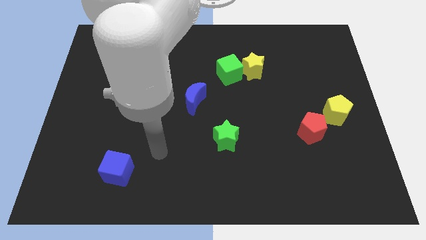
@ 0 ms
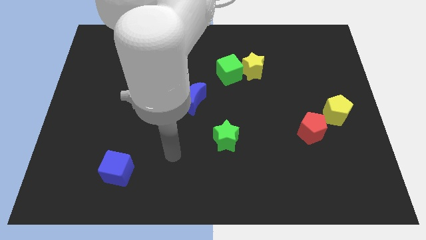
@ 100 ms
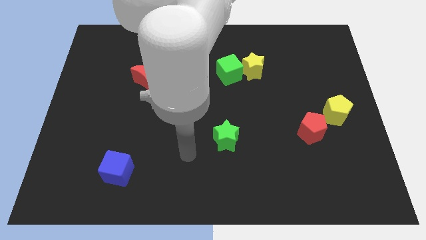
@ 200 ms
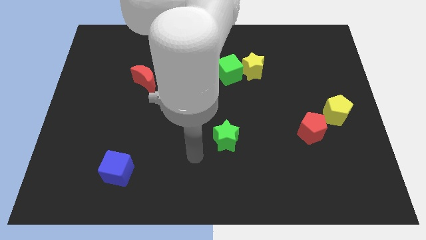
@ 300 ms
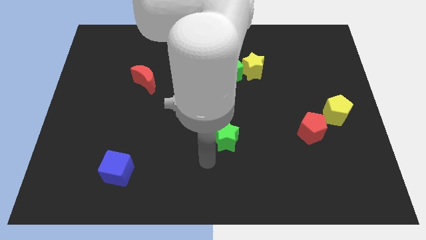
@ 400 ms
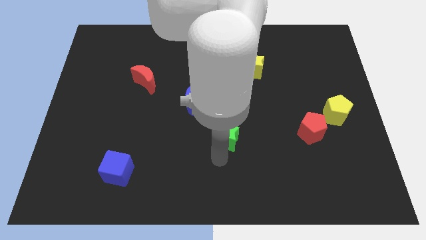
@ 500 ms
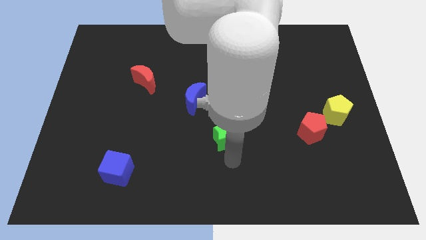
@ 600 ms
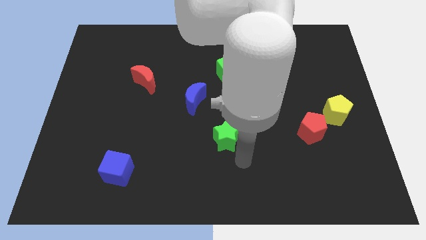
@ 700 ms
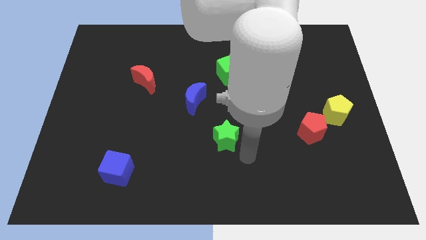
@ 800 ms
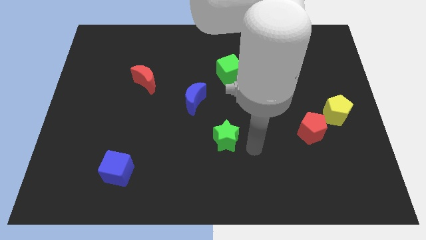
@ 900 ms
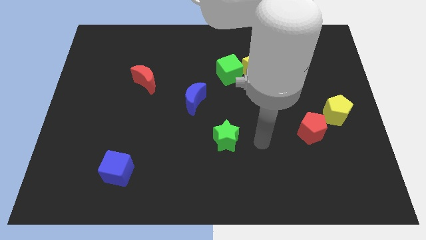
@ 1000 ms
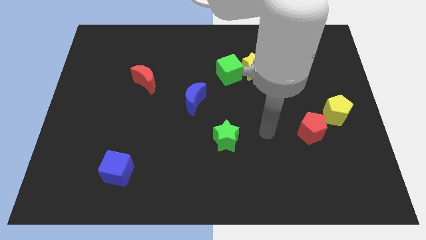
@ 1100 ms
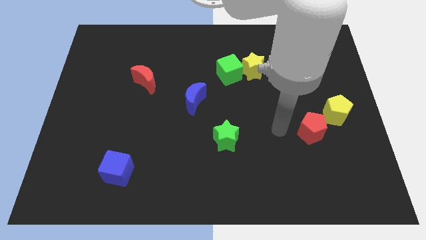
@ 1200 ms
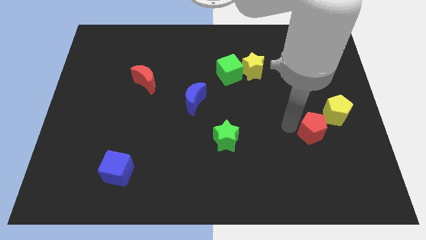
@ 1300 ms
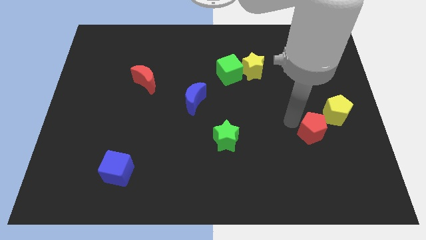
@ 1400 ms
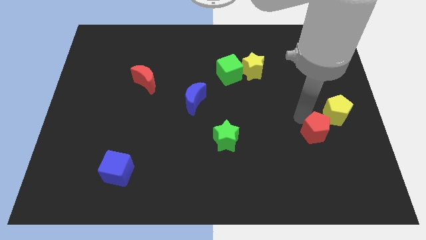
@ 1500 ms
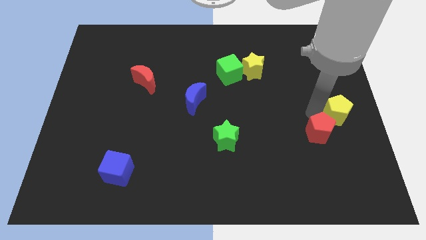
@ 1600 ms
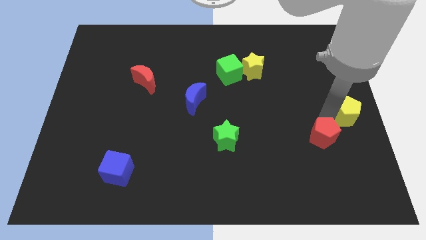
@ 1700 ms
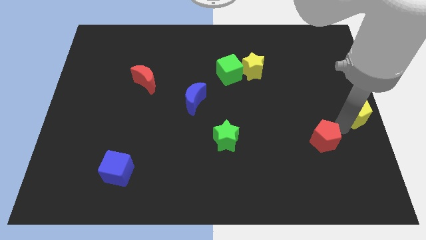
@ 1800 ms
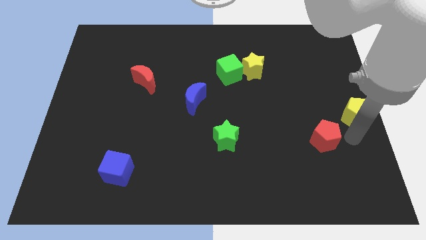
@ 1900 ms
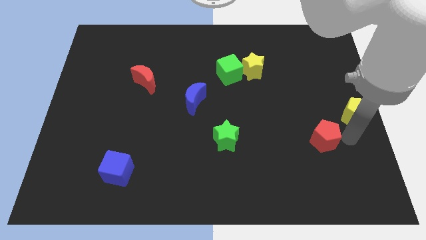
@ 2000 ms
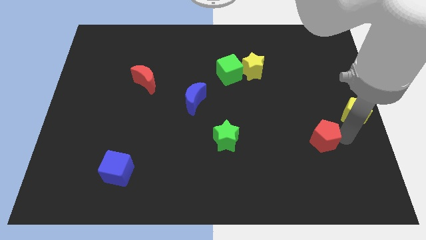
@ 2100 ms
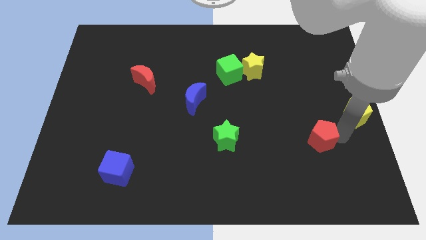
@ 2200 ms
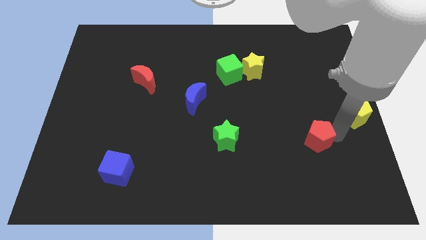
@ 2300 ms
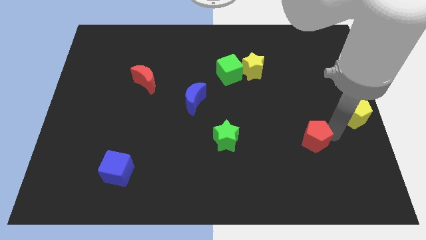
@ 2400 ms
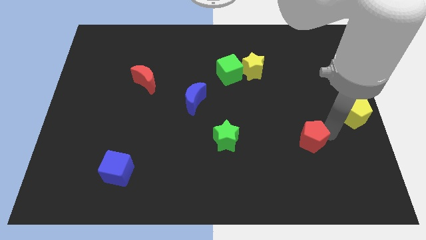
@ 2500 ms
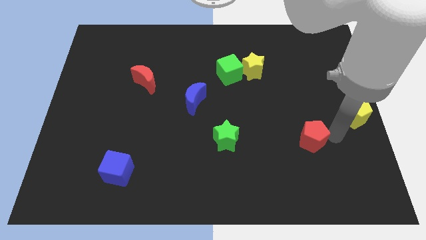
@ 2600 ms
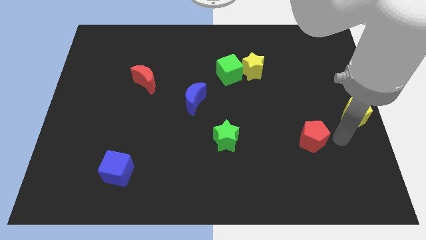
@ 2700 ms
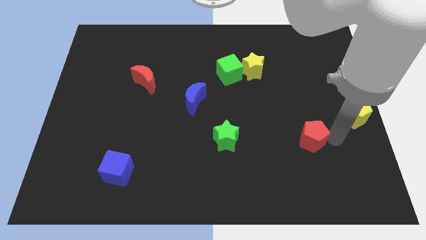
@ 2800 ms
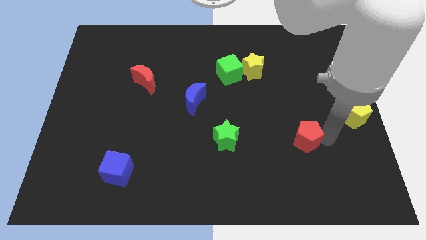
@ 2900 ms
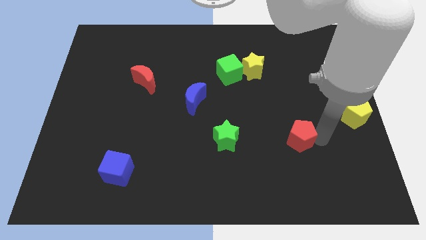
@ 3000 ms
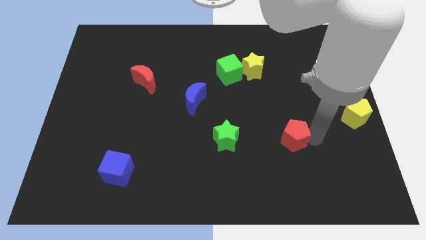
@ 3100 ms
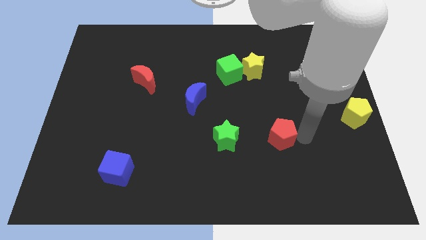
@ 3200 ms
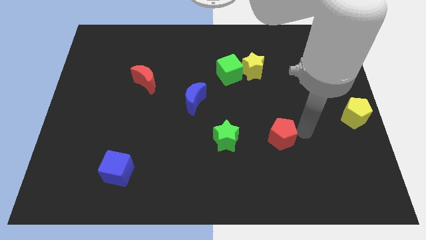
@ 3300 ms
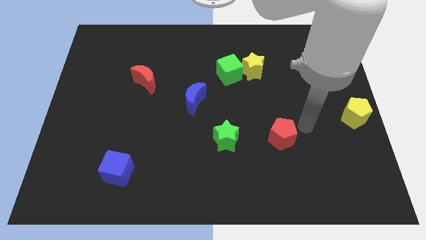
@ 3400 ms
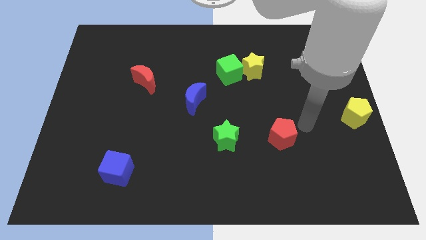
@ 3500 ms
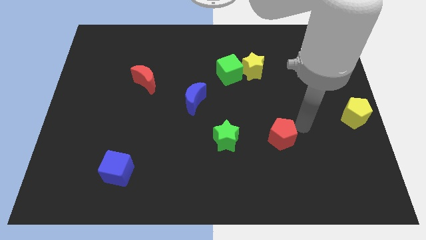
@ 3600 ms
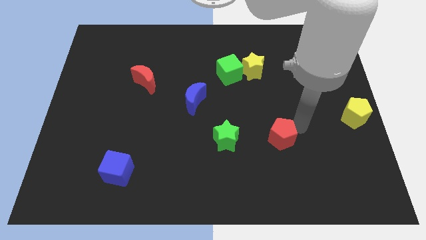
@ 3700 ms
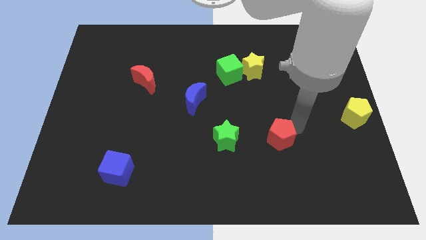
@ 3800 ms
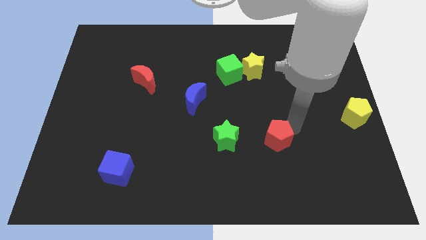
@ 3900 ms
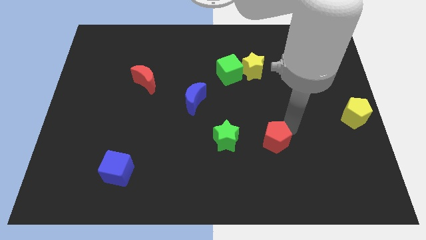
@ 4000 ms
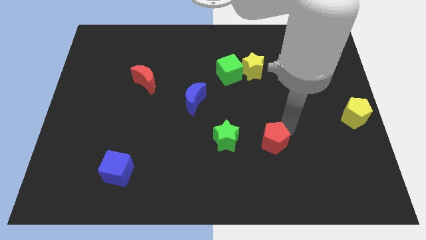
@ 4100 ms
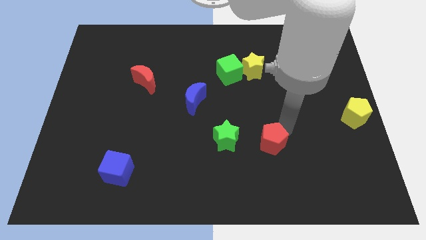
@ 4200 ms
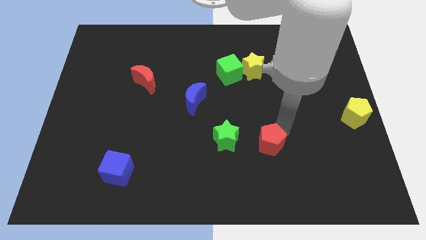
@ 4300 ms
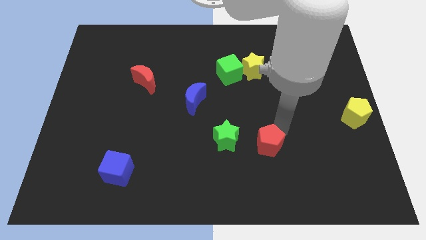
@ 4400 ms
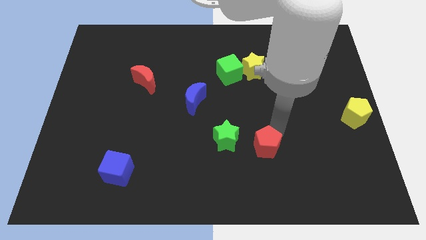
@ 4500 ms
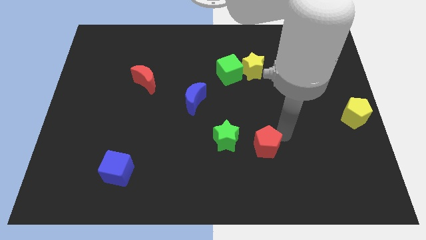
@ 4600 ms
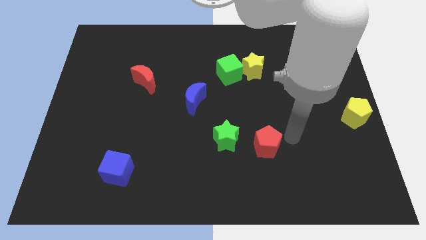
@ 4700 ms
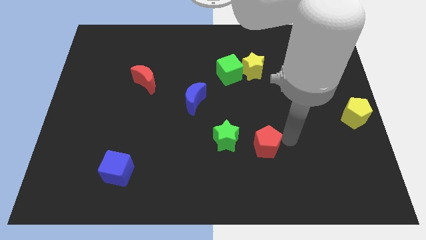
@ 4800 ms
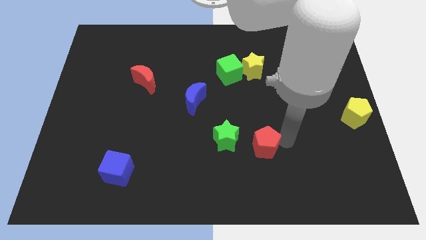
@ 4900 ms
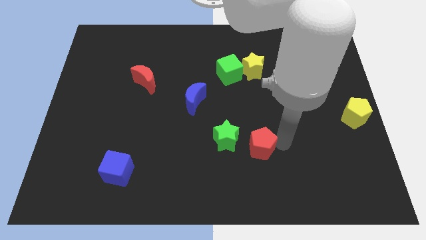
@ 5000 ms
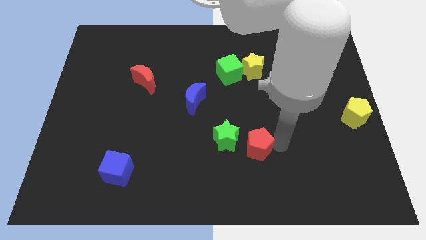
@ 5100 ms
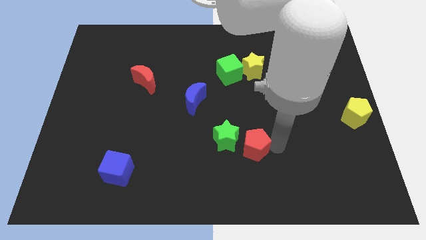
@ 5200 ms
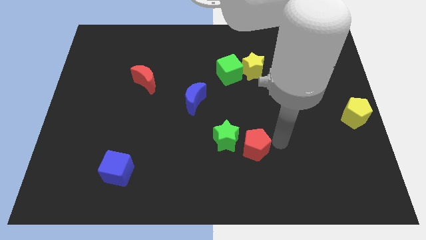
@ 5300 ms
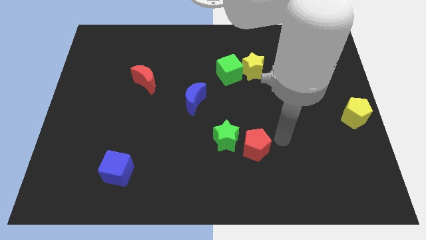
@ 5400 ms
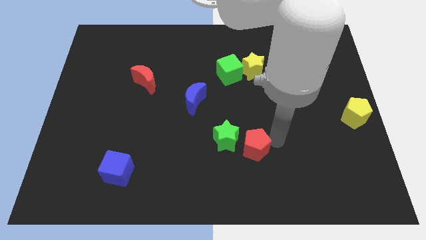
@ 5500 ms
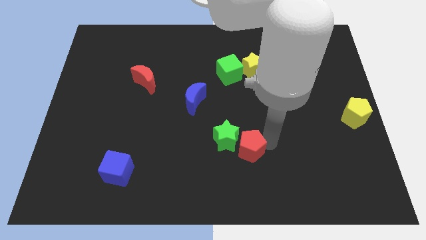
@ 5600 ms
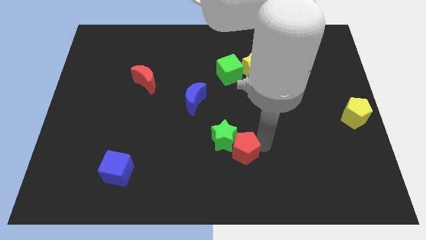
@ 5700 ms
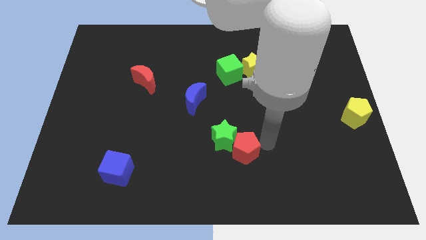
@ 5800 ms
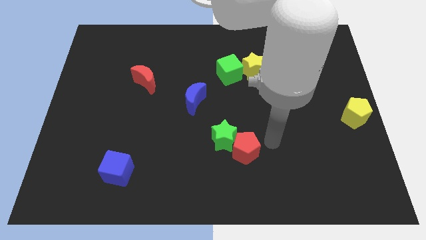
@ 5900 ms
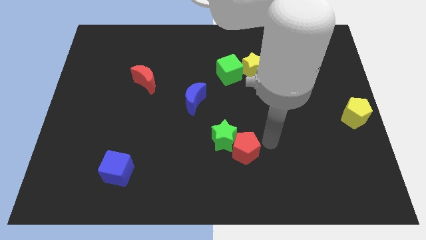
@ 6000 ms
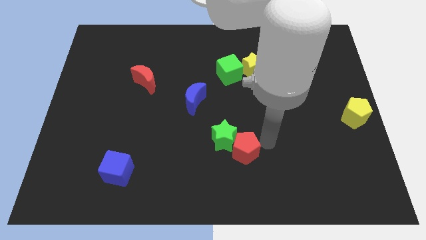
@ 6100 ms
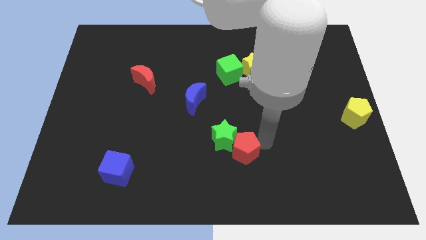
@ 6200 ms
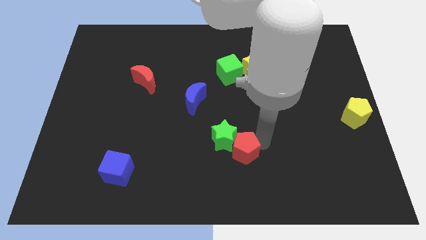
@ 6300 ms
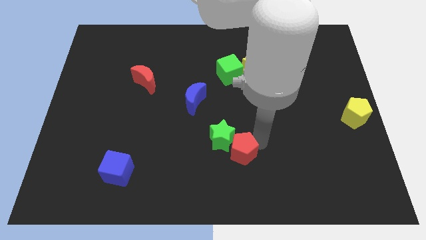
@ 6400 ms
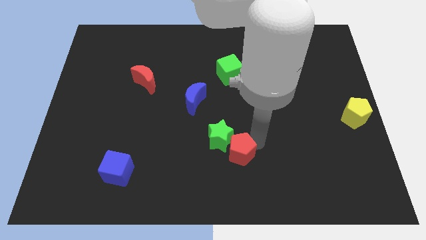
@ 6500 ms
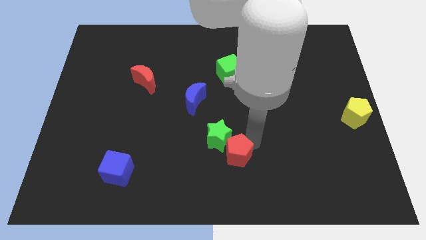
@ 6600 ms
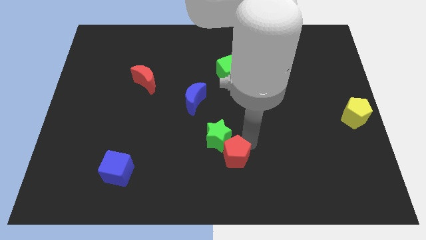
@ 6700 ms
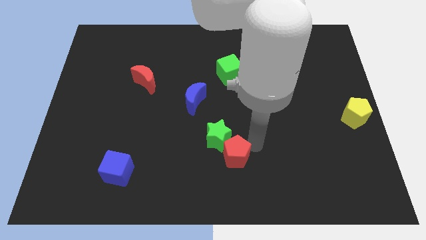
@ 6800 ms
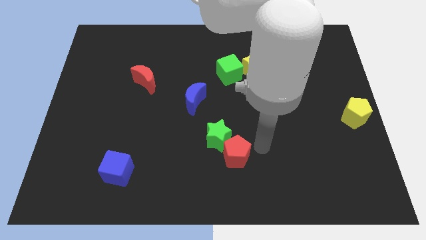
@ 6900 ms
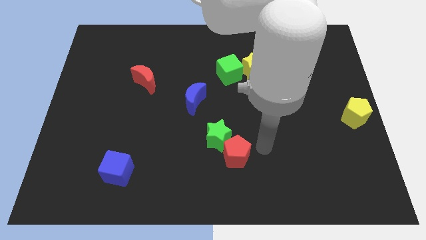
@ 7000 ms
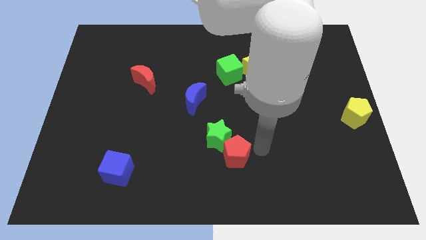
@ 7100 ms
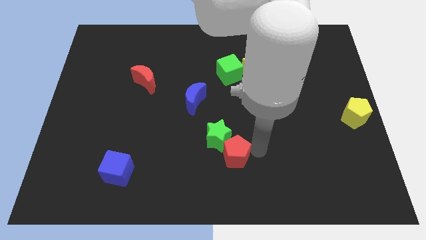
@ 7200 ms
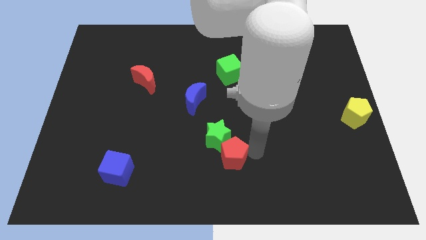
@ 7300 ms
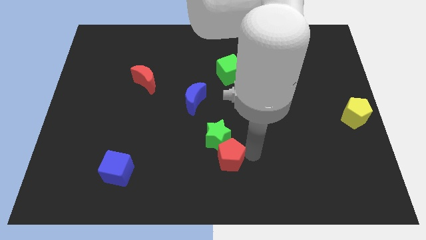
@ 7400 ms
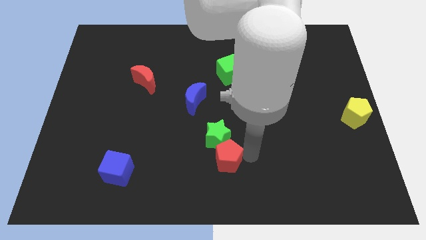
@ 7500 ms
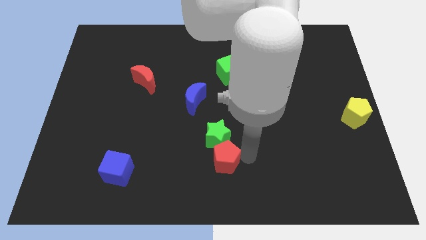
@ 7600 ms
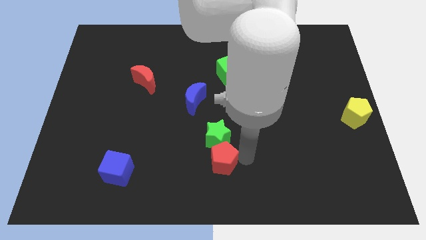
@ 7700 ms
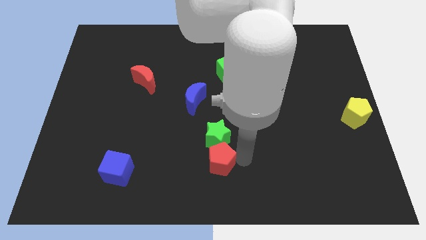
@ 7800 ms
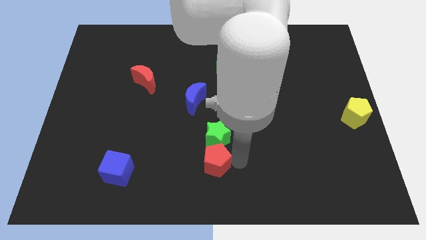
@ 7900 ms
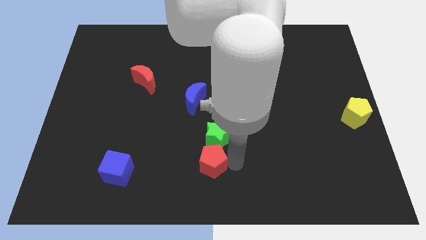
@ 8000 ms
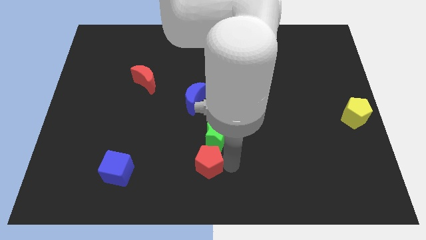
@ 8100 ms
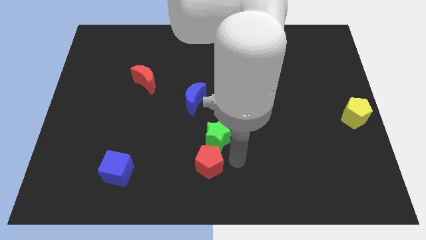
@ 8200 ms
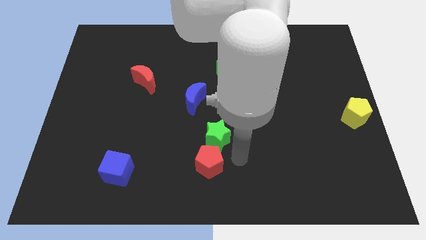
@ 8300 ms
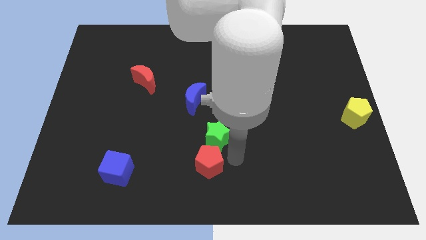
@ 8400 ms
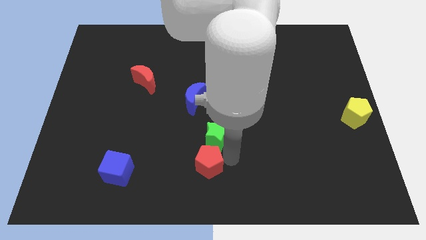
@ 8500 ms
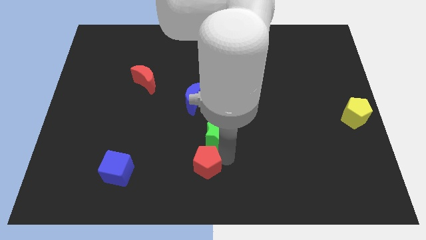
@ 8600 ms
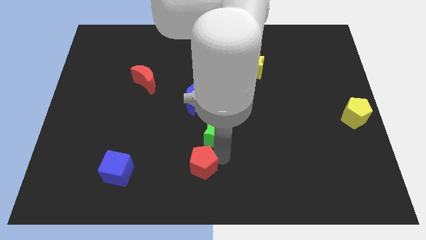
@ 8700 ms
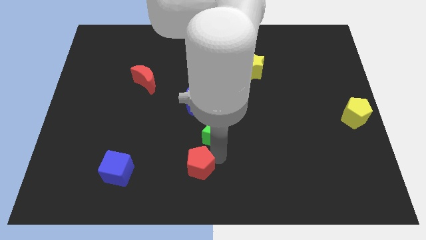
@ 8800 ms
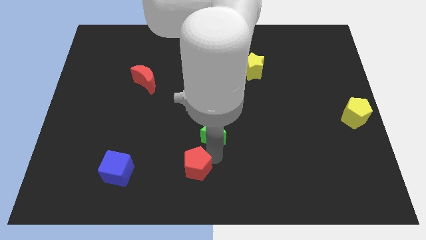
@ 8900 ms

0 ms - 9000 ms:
push the red pentagon to the right side of the blue cube
